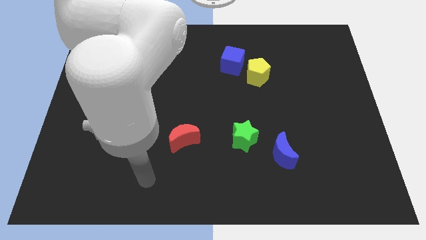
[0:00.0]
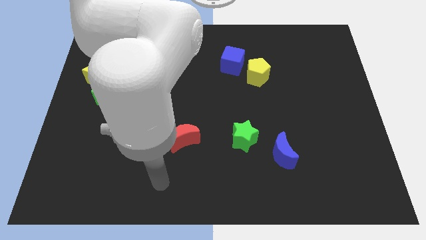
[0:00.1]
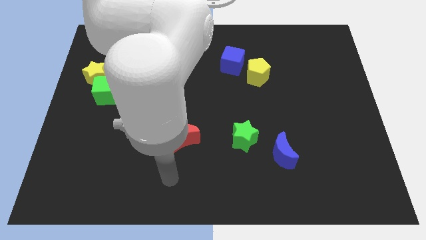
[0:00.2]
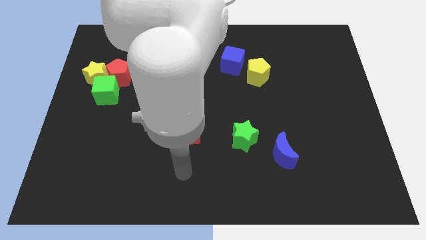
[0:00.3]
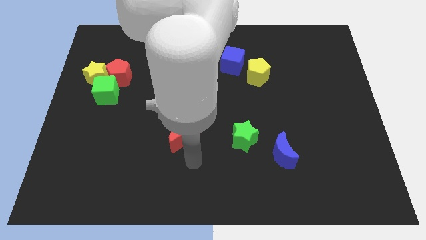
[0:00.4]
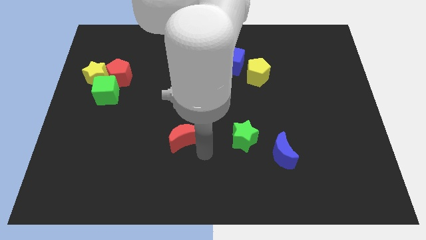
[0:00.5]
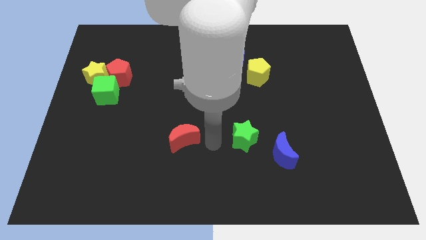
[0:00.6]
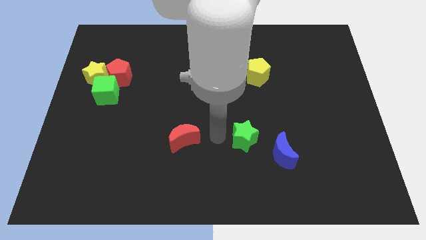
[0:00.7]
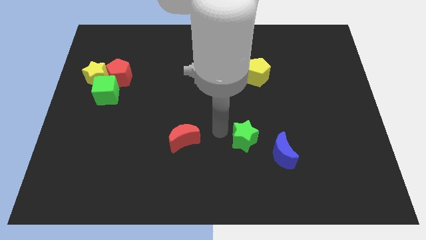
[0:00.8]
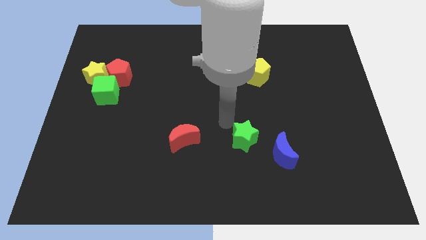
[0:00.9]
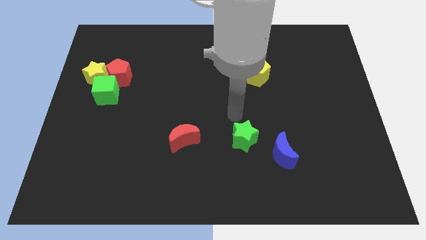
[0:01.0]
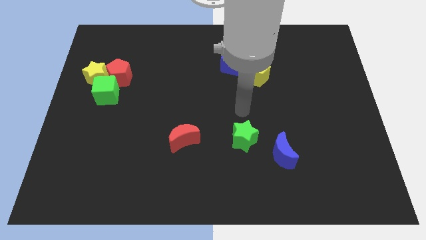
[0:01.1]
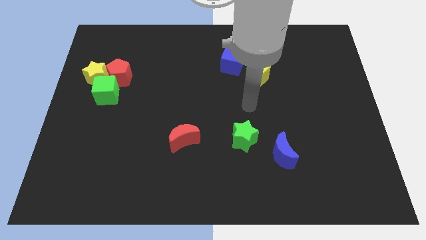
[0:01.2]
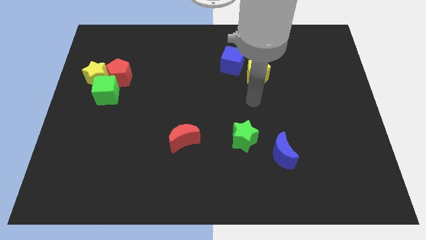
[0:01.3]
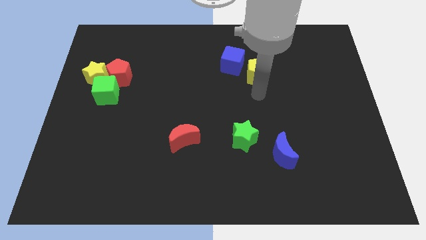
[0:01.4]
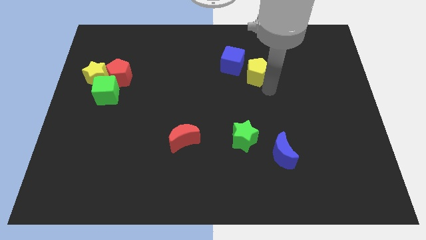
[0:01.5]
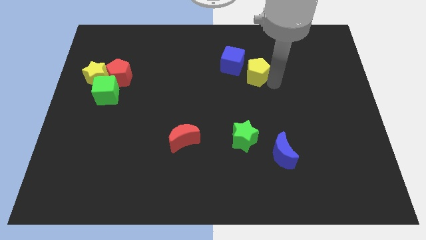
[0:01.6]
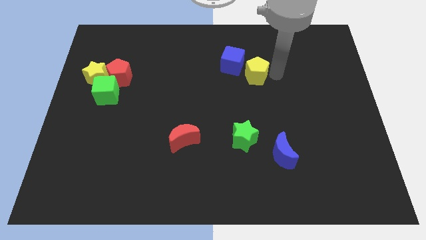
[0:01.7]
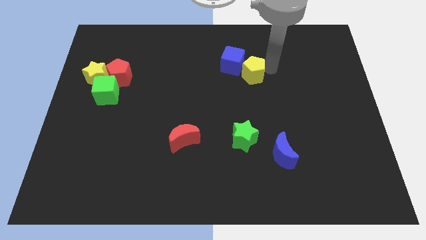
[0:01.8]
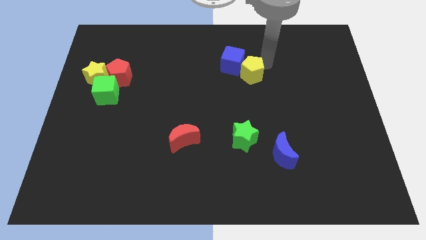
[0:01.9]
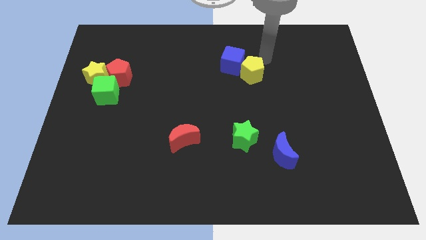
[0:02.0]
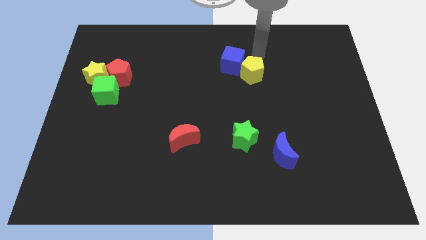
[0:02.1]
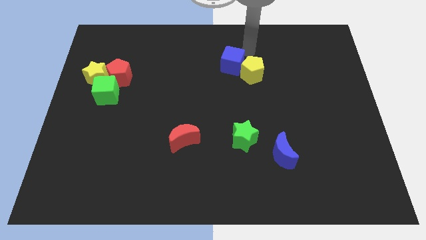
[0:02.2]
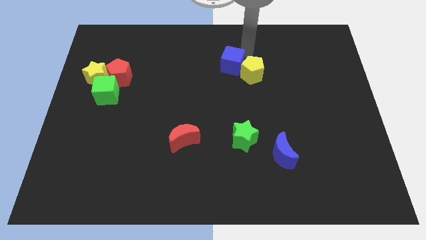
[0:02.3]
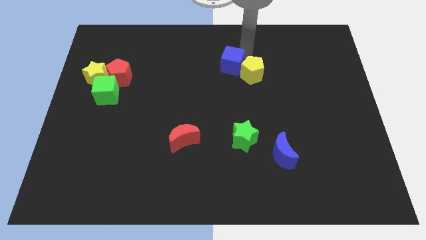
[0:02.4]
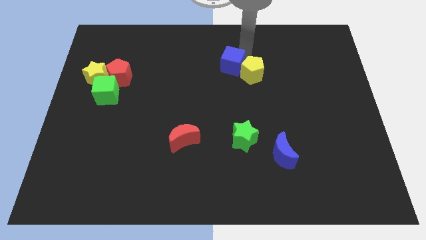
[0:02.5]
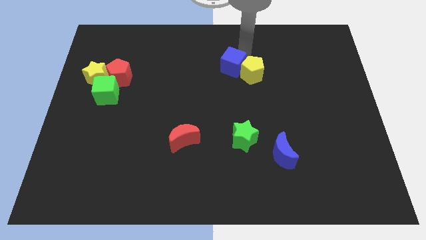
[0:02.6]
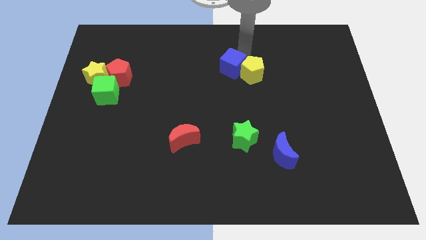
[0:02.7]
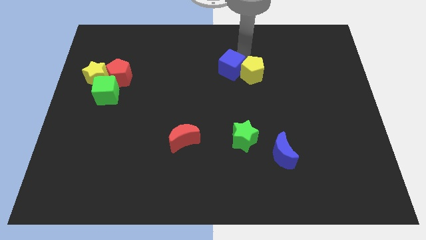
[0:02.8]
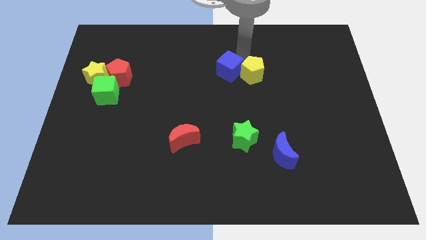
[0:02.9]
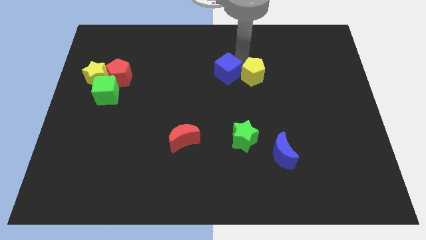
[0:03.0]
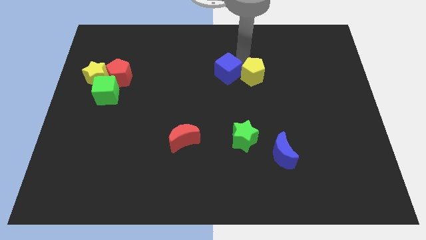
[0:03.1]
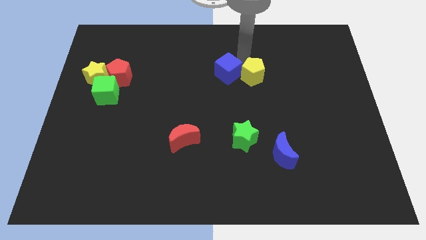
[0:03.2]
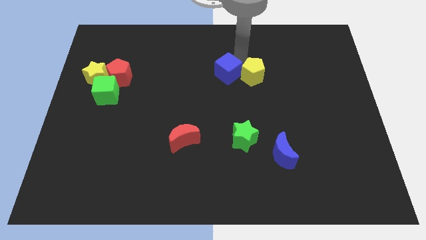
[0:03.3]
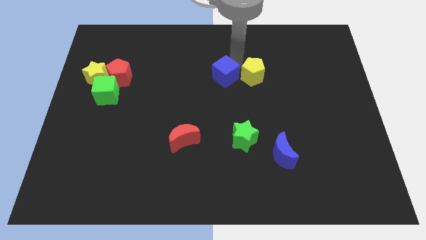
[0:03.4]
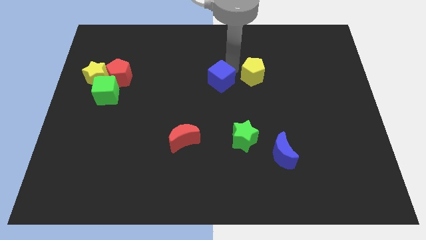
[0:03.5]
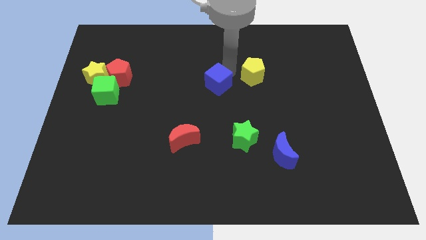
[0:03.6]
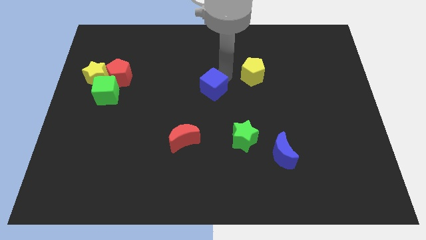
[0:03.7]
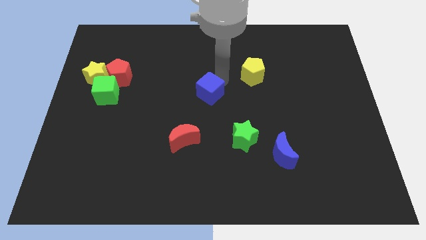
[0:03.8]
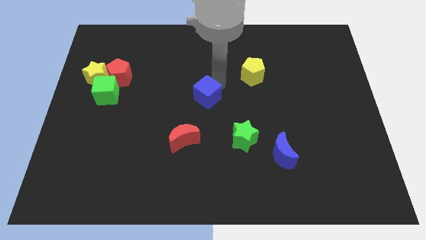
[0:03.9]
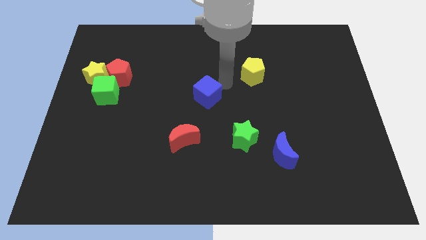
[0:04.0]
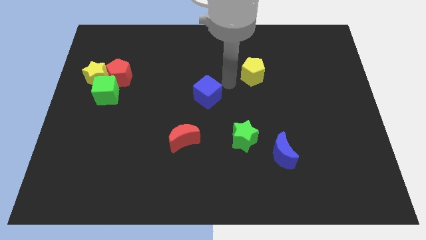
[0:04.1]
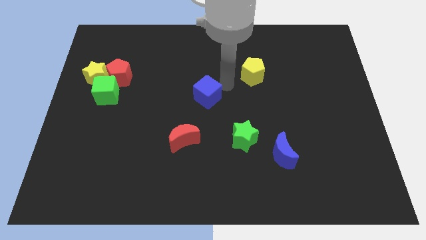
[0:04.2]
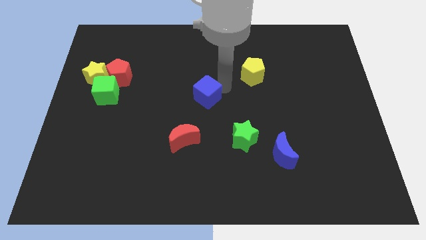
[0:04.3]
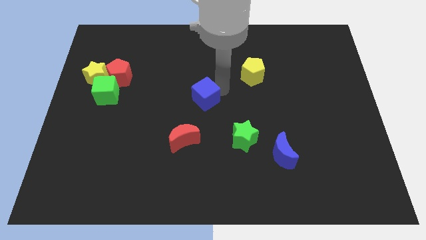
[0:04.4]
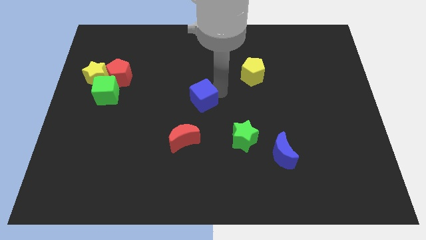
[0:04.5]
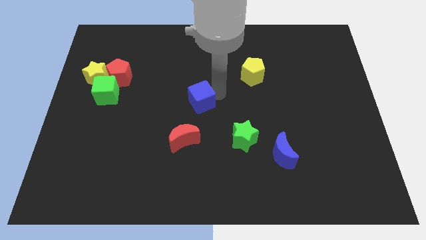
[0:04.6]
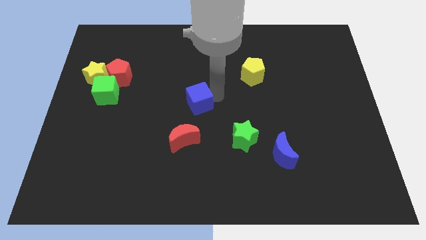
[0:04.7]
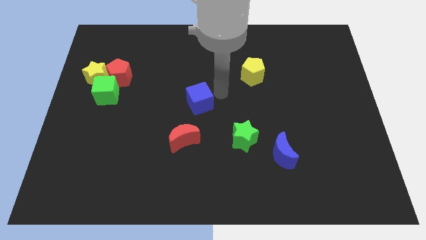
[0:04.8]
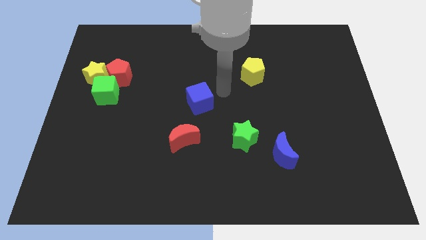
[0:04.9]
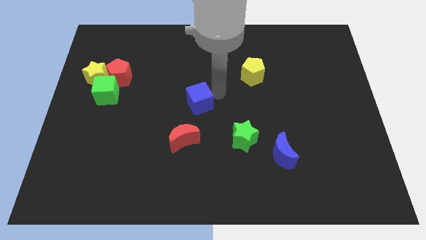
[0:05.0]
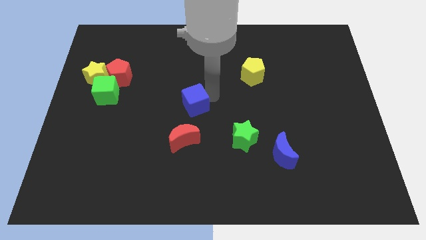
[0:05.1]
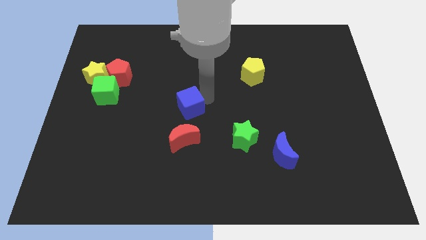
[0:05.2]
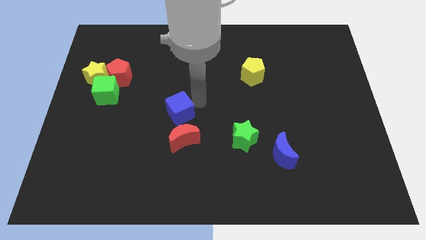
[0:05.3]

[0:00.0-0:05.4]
slide the blue cube downwards and left

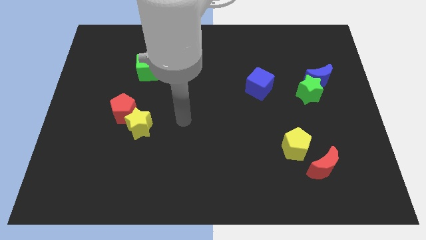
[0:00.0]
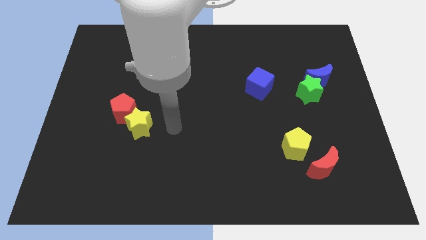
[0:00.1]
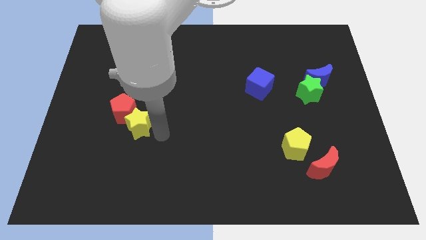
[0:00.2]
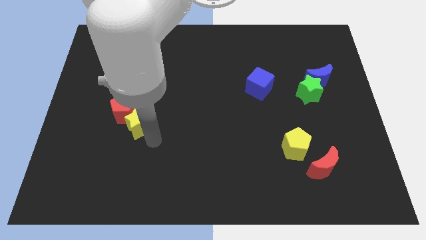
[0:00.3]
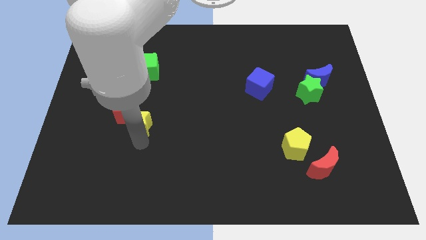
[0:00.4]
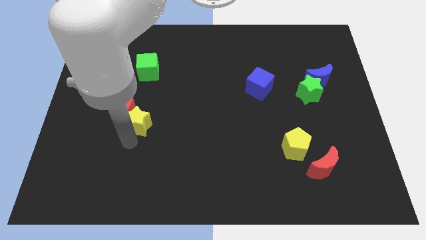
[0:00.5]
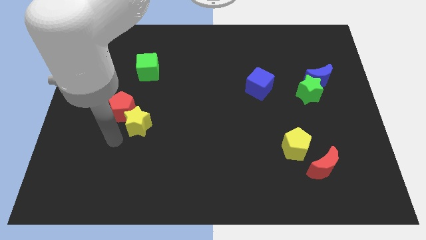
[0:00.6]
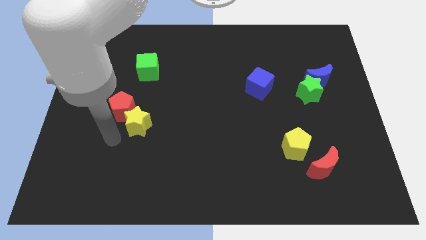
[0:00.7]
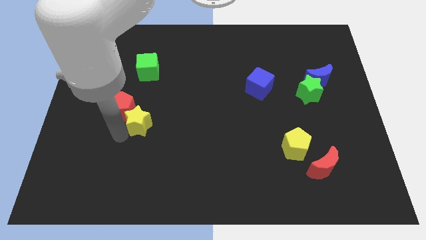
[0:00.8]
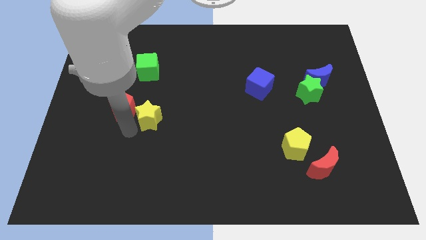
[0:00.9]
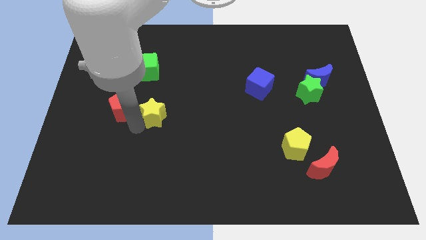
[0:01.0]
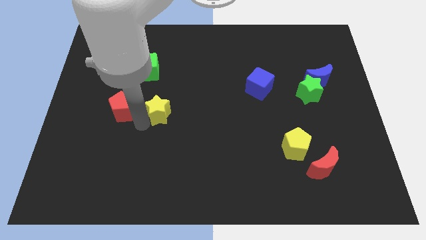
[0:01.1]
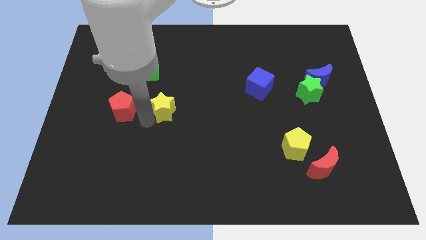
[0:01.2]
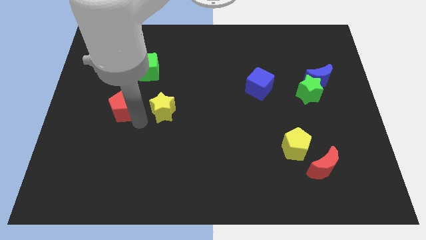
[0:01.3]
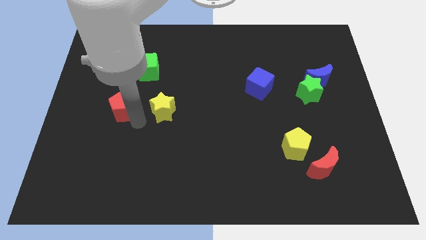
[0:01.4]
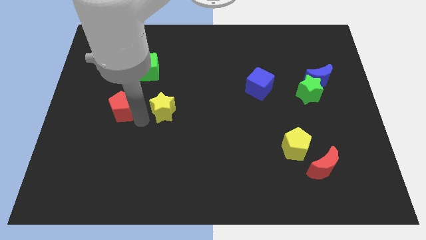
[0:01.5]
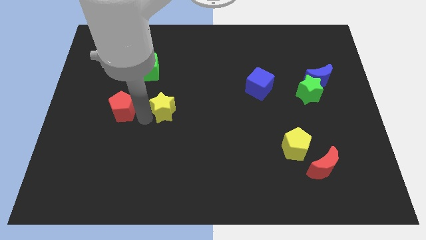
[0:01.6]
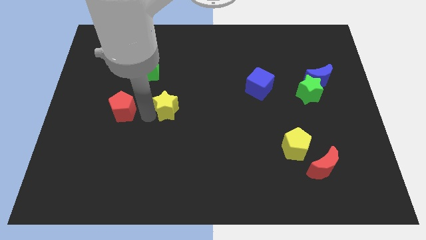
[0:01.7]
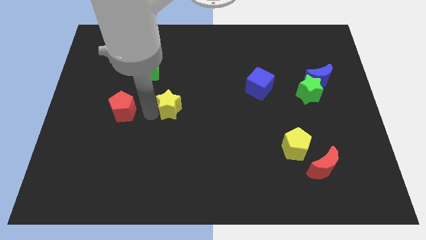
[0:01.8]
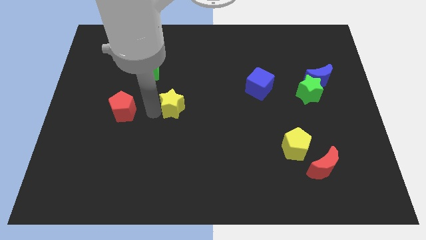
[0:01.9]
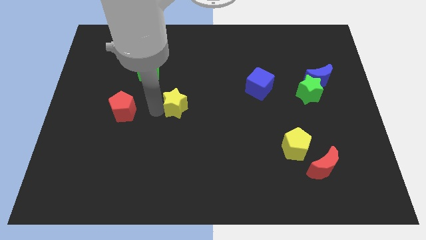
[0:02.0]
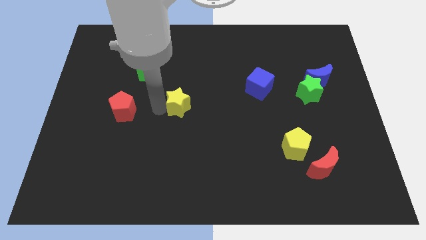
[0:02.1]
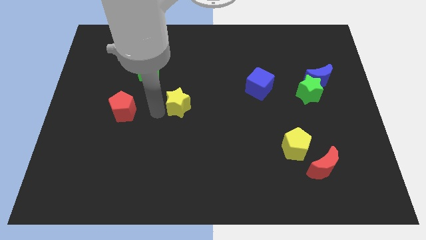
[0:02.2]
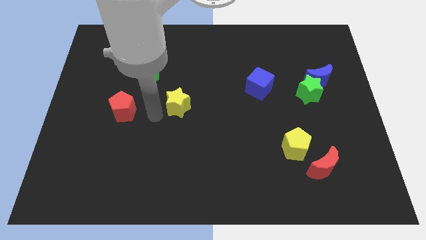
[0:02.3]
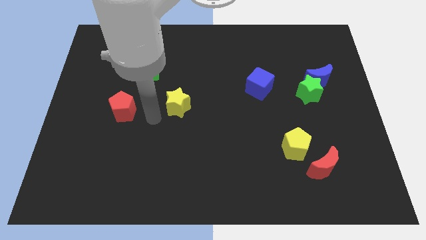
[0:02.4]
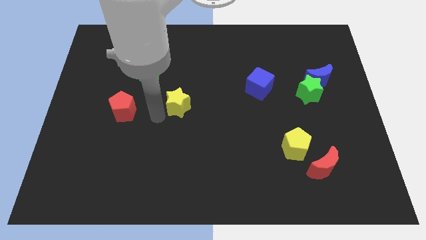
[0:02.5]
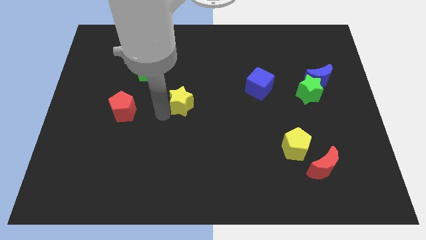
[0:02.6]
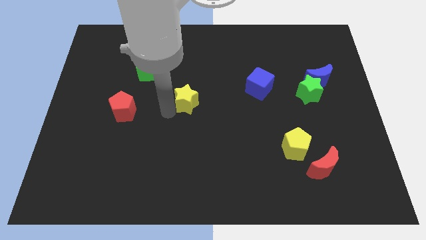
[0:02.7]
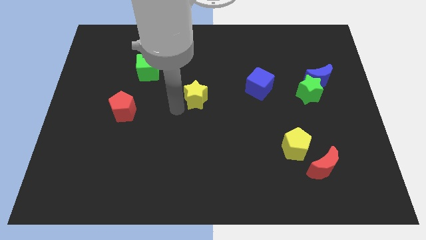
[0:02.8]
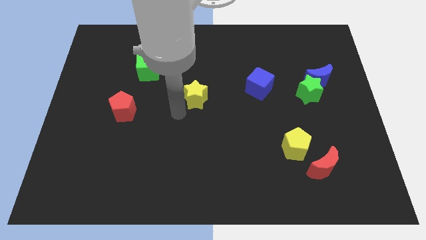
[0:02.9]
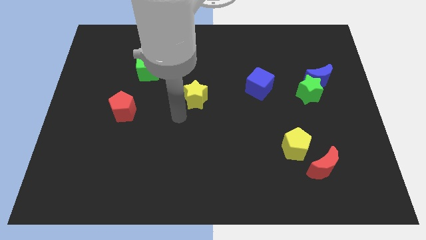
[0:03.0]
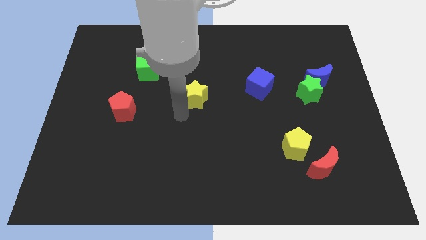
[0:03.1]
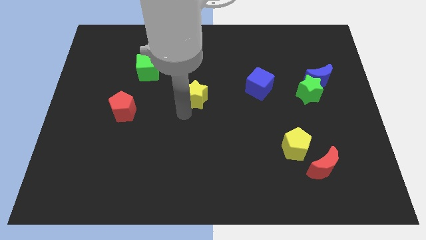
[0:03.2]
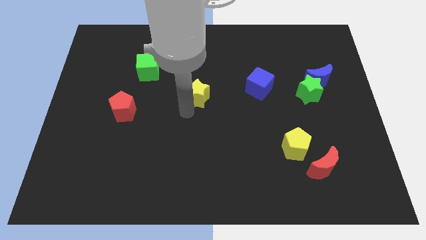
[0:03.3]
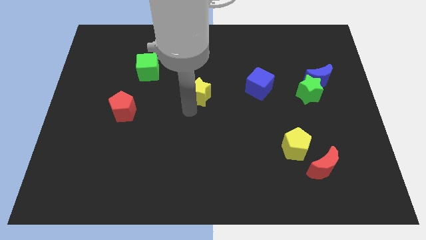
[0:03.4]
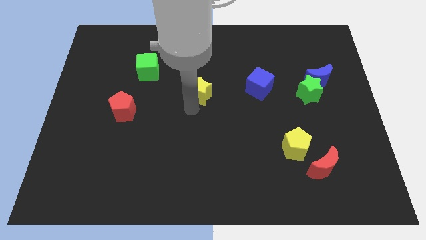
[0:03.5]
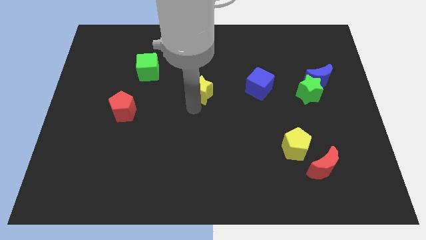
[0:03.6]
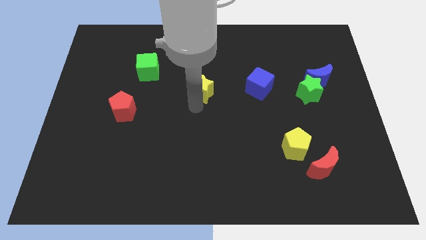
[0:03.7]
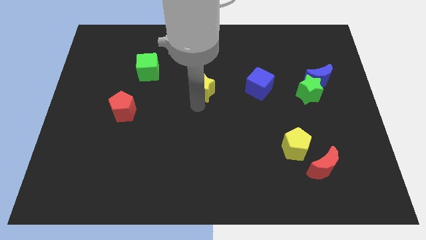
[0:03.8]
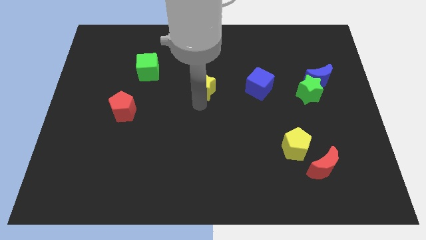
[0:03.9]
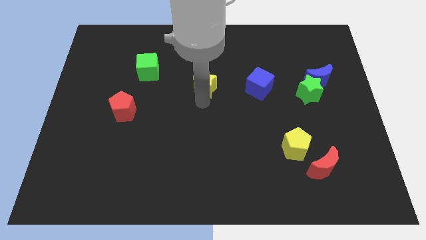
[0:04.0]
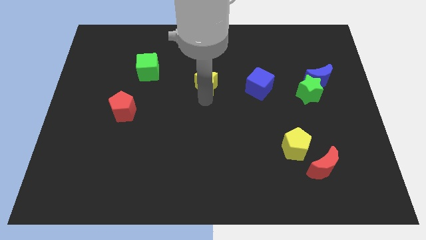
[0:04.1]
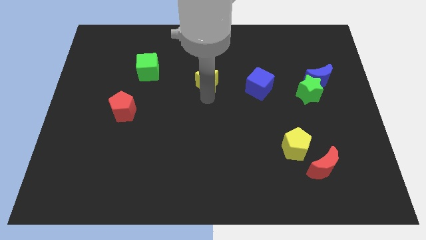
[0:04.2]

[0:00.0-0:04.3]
move the yellow star up and to the right
